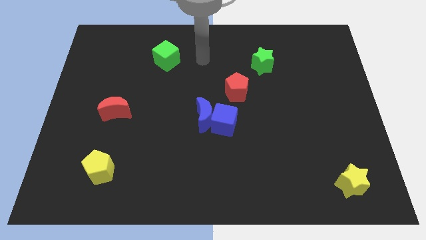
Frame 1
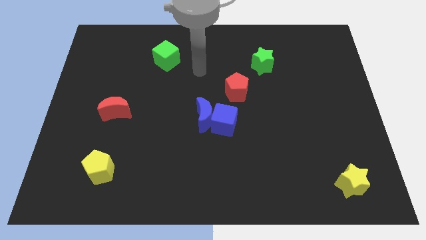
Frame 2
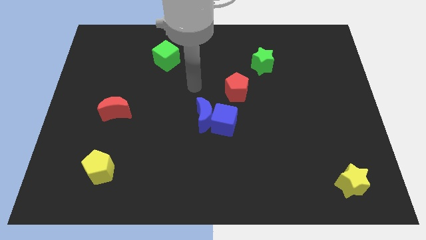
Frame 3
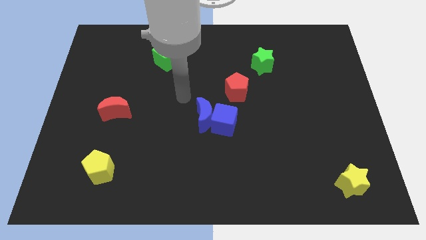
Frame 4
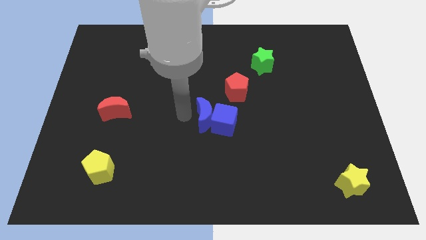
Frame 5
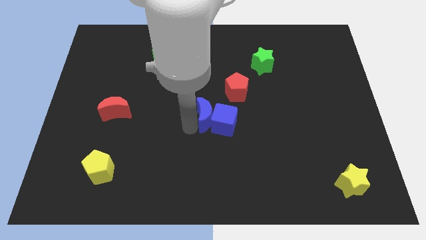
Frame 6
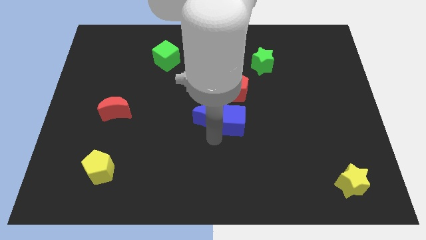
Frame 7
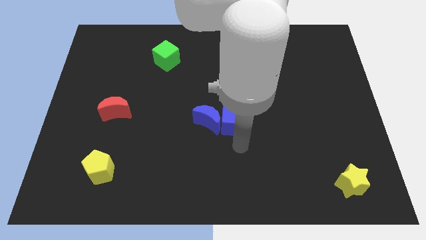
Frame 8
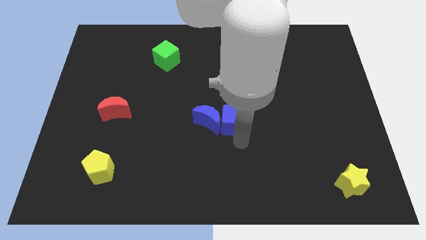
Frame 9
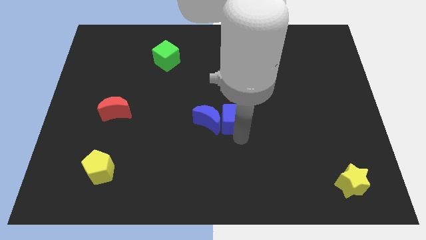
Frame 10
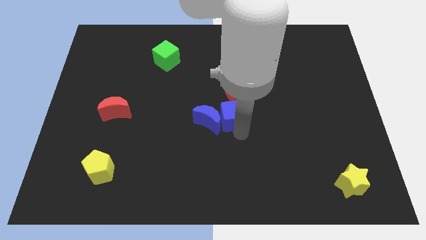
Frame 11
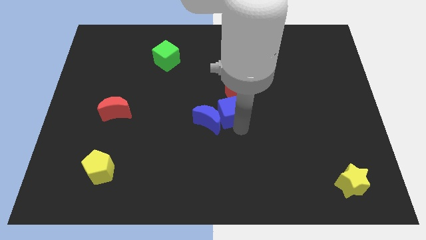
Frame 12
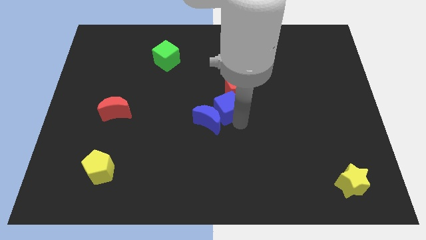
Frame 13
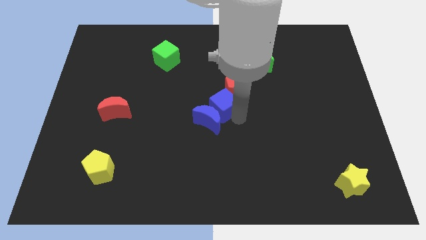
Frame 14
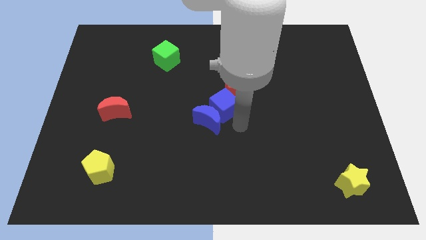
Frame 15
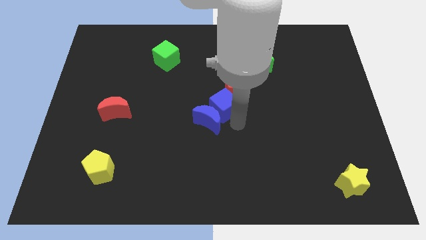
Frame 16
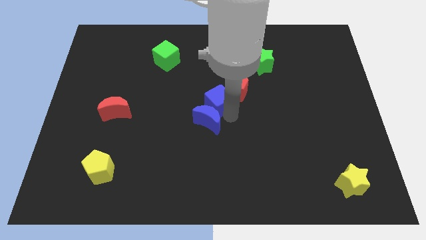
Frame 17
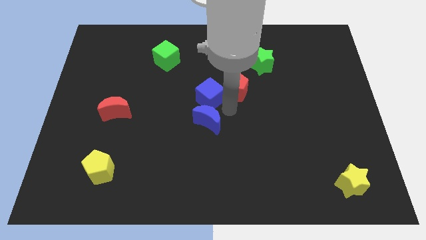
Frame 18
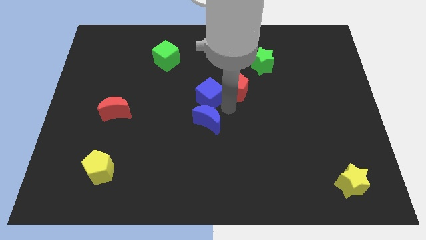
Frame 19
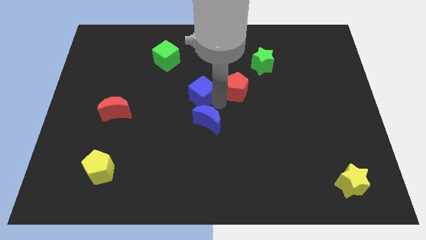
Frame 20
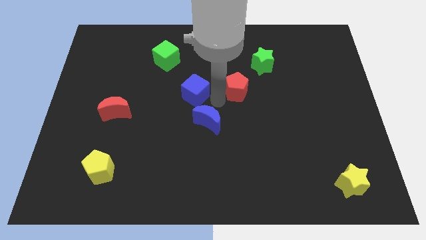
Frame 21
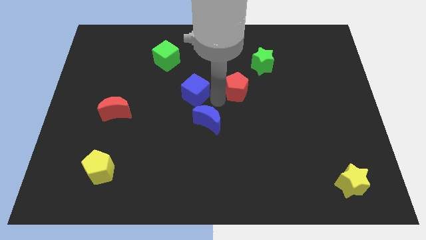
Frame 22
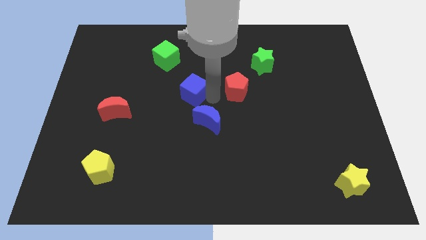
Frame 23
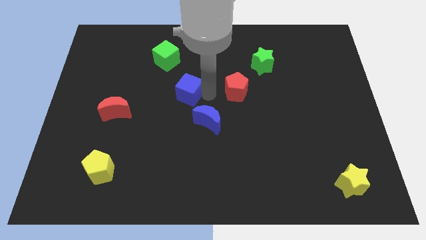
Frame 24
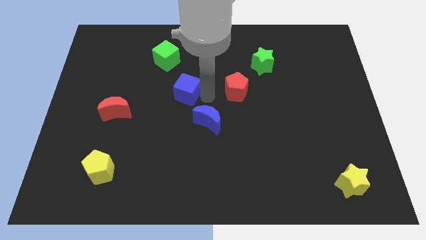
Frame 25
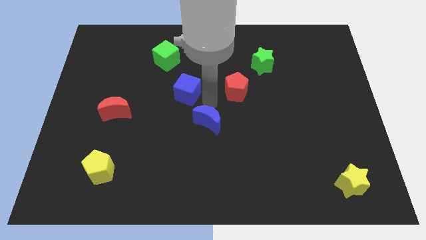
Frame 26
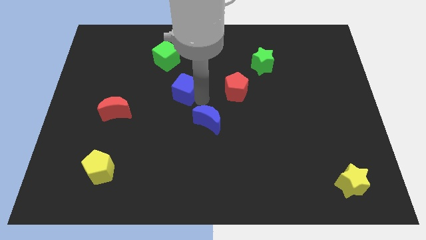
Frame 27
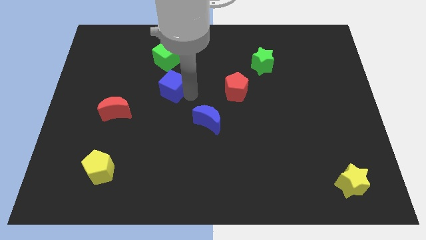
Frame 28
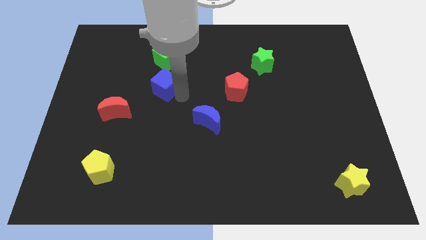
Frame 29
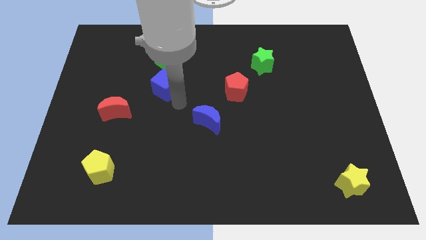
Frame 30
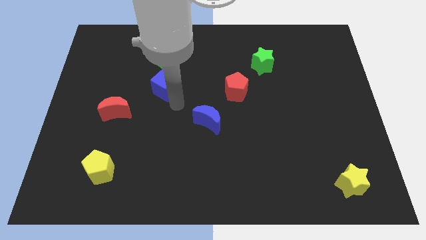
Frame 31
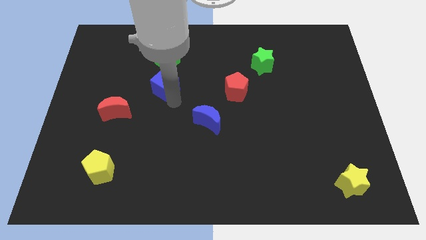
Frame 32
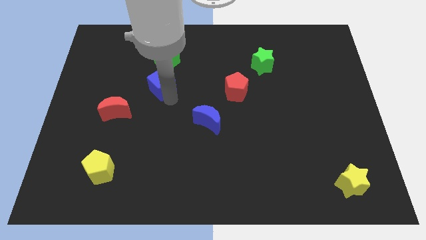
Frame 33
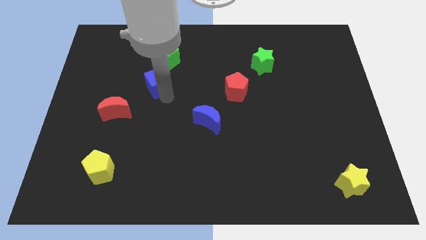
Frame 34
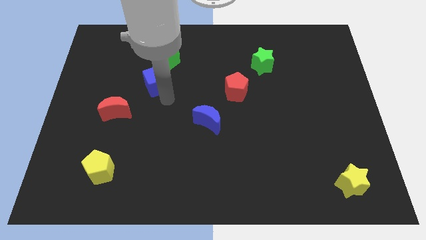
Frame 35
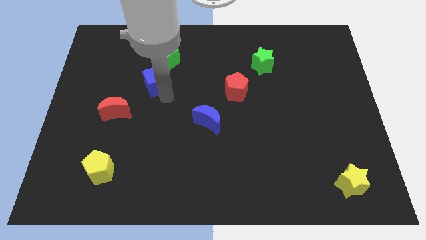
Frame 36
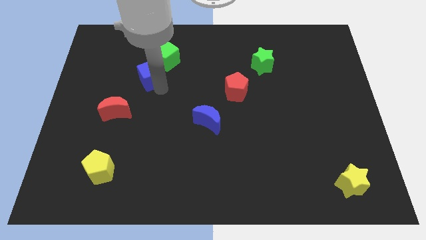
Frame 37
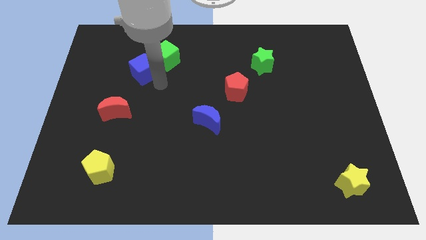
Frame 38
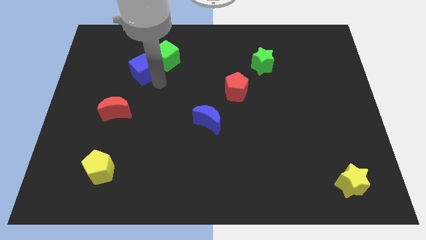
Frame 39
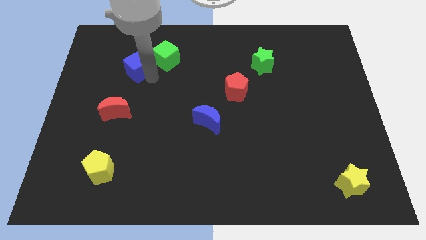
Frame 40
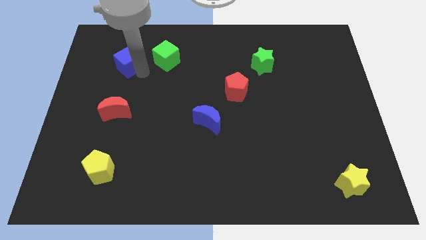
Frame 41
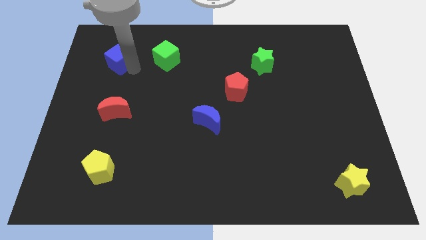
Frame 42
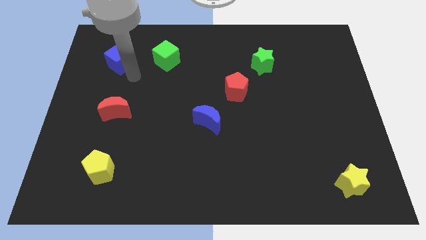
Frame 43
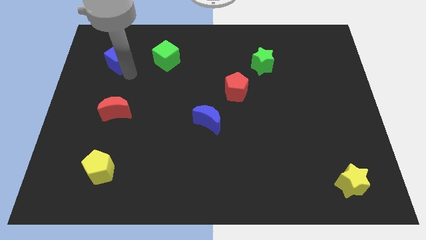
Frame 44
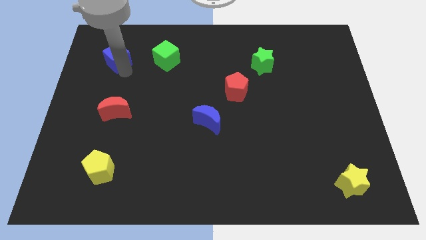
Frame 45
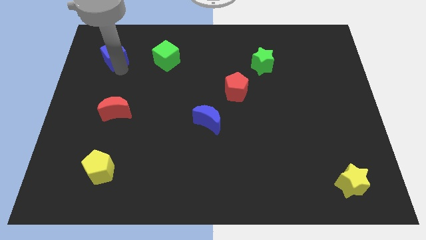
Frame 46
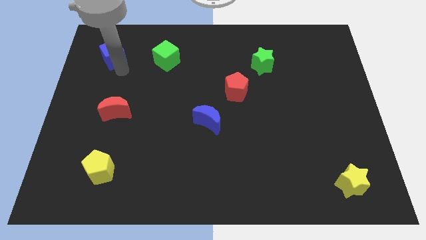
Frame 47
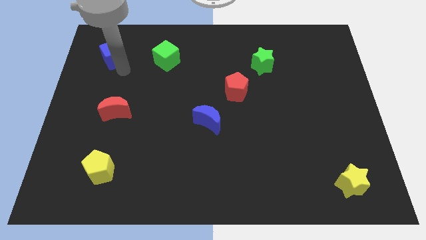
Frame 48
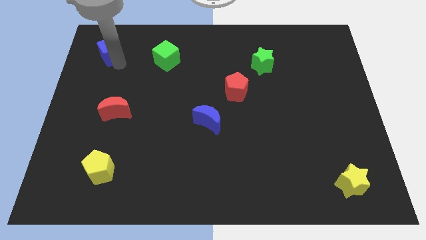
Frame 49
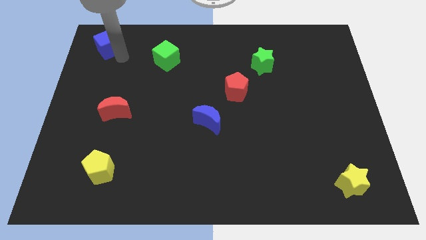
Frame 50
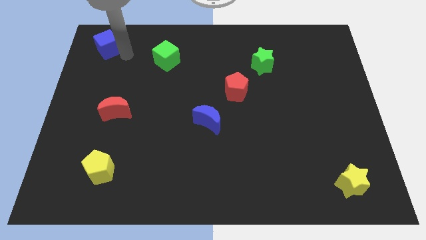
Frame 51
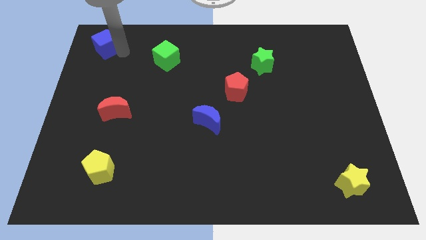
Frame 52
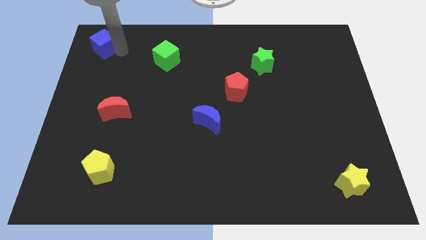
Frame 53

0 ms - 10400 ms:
push the blue cube to the top left
